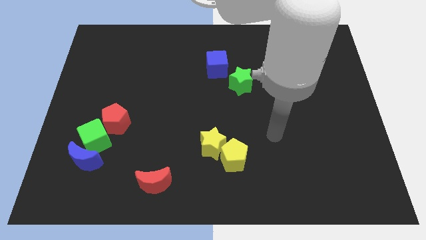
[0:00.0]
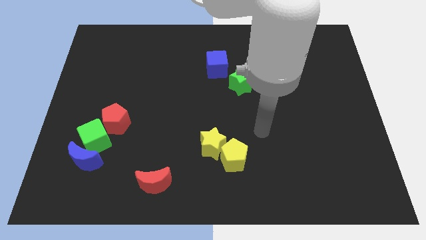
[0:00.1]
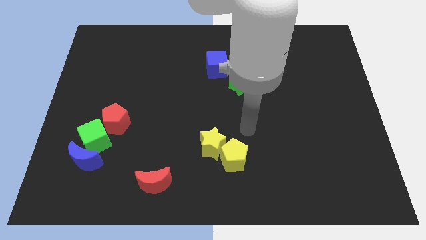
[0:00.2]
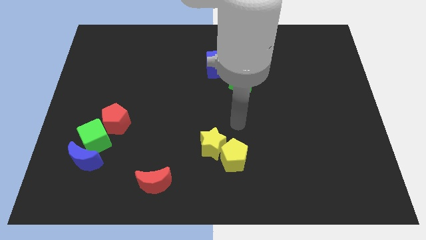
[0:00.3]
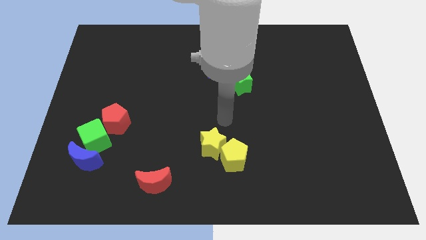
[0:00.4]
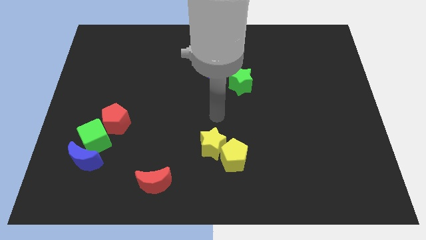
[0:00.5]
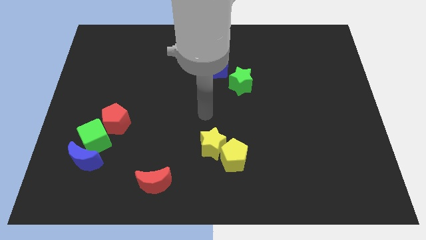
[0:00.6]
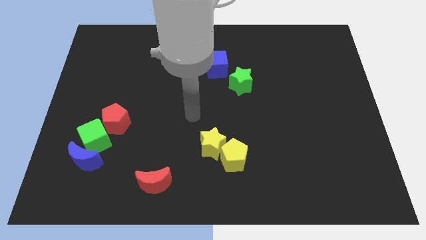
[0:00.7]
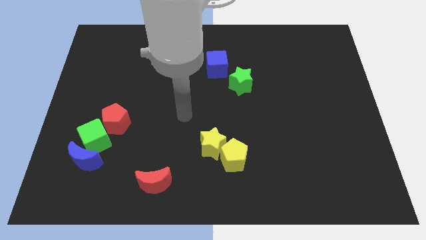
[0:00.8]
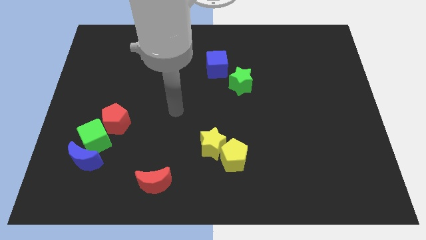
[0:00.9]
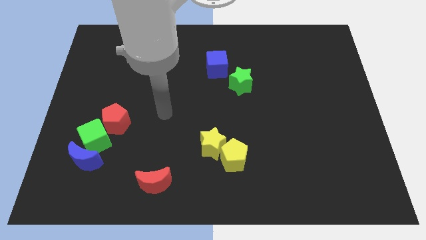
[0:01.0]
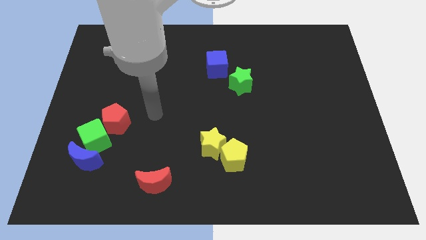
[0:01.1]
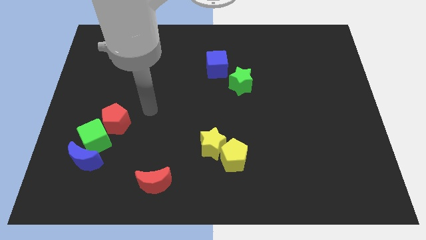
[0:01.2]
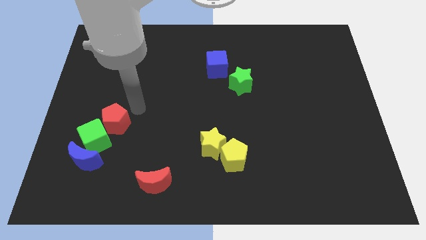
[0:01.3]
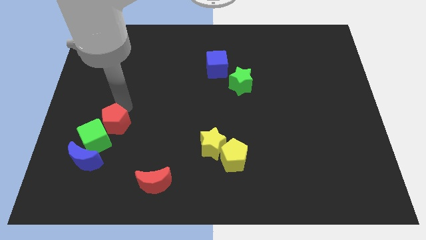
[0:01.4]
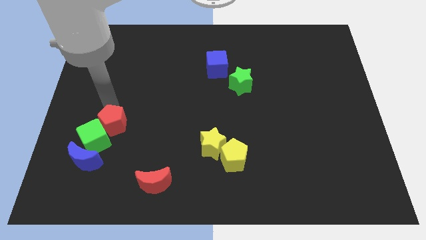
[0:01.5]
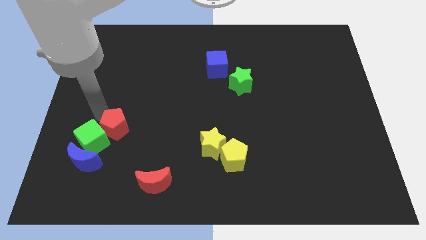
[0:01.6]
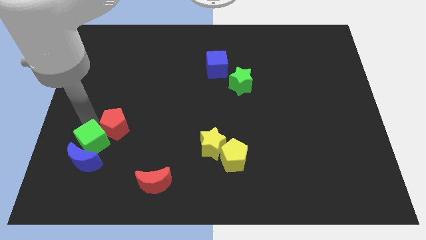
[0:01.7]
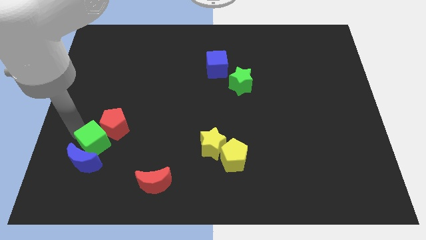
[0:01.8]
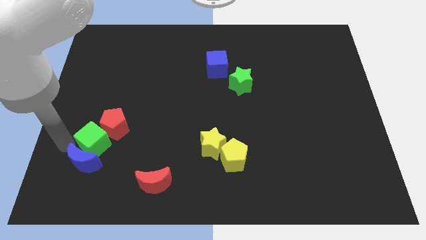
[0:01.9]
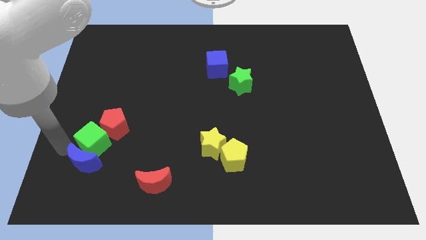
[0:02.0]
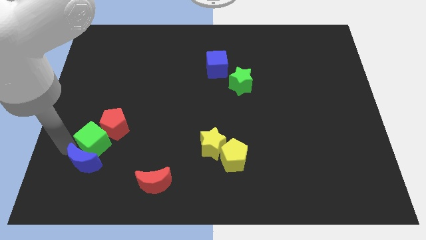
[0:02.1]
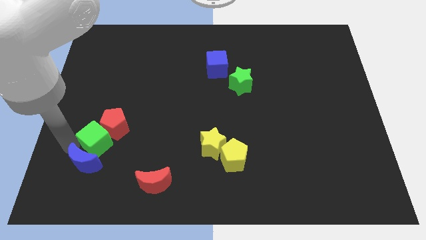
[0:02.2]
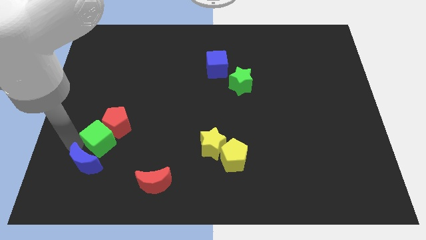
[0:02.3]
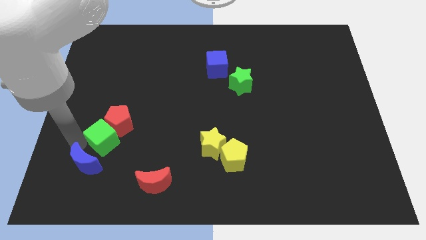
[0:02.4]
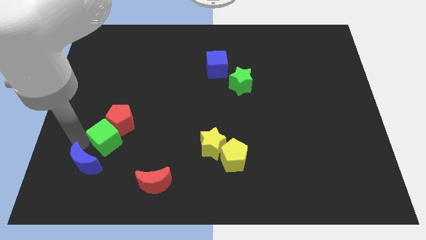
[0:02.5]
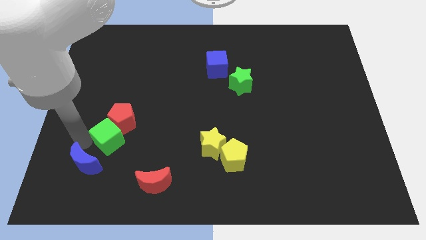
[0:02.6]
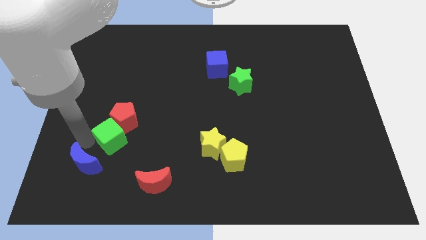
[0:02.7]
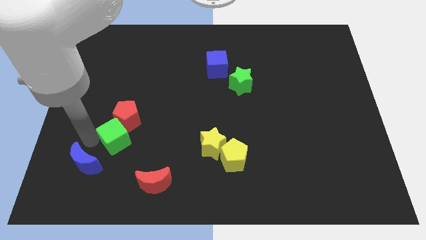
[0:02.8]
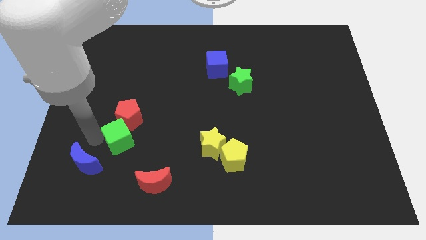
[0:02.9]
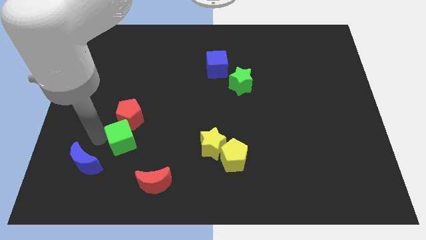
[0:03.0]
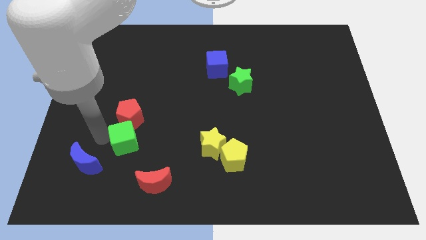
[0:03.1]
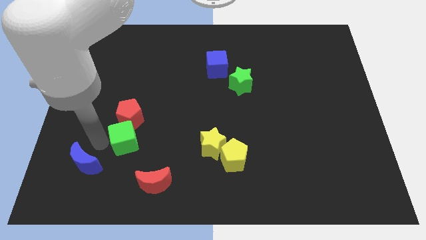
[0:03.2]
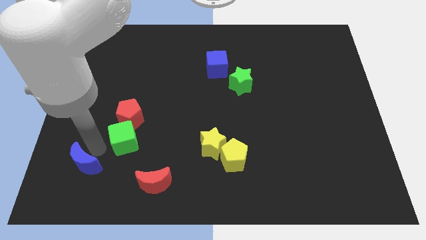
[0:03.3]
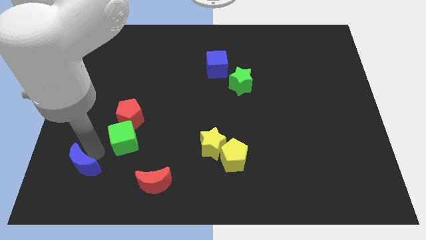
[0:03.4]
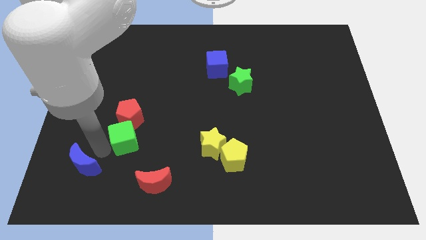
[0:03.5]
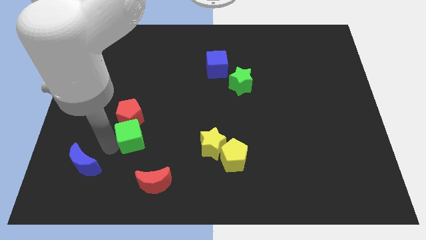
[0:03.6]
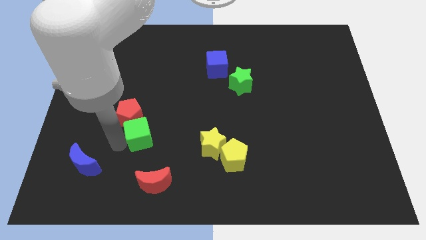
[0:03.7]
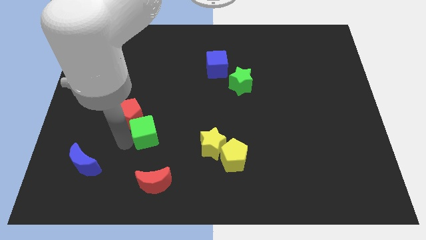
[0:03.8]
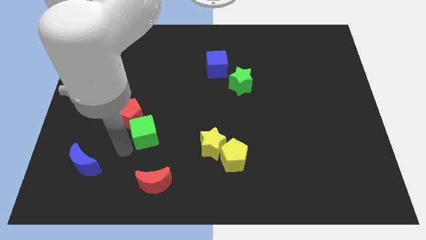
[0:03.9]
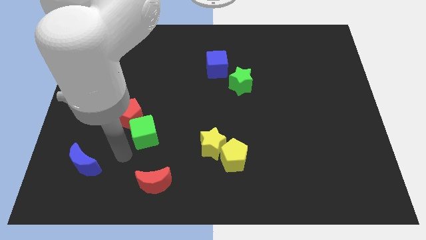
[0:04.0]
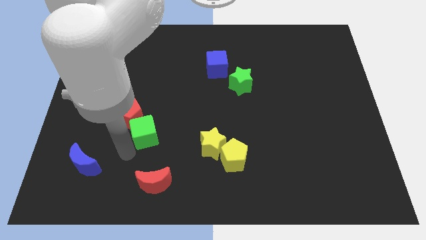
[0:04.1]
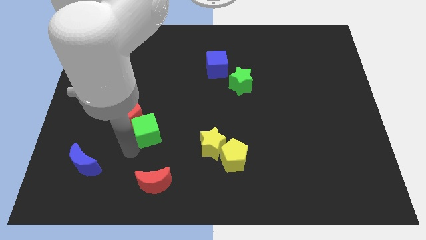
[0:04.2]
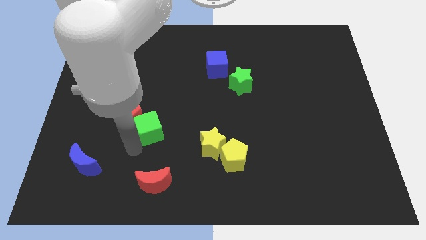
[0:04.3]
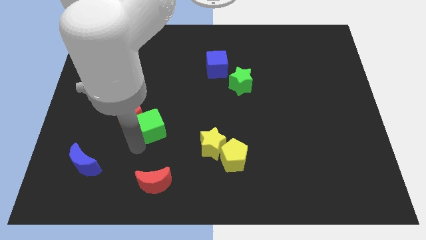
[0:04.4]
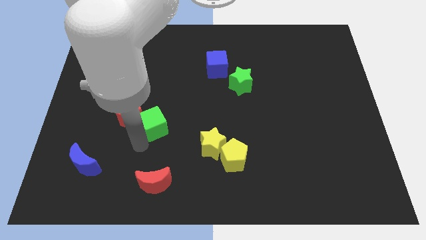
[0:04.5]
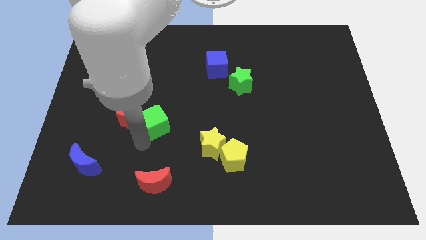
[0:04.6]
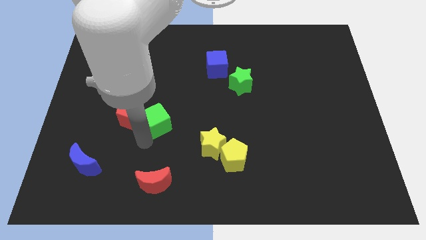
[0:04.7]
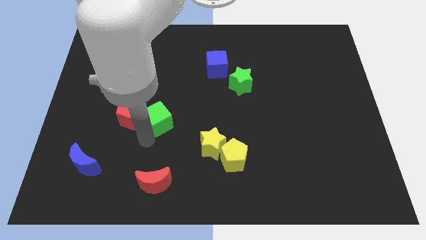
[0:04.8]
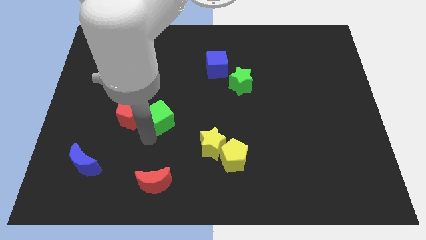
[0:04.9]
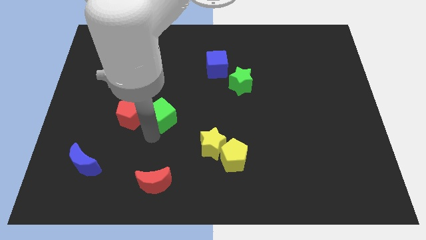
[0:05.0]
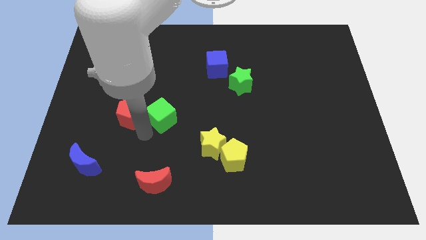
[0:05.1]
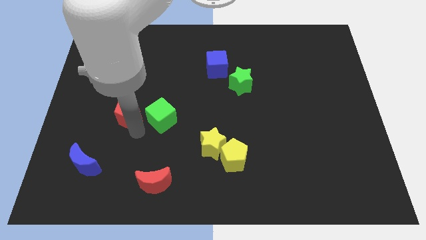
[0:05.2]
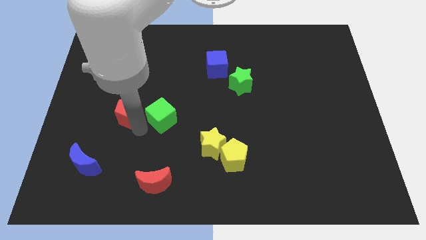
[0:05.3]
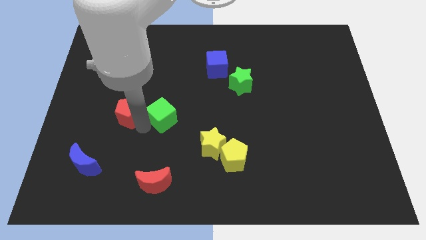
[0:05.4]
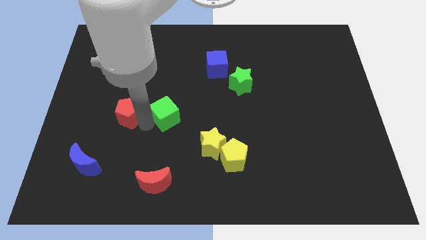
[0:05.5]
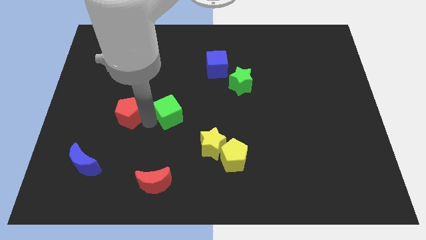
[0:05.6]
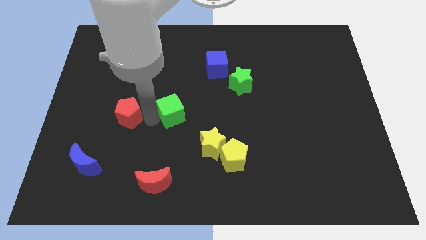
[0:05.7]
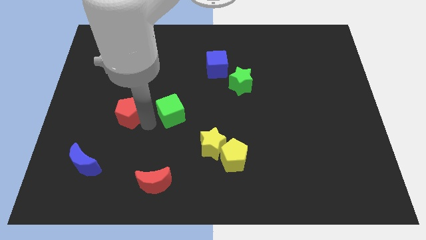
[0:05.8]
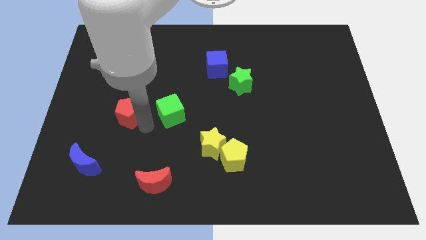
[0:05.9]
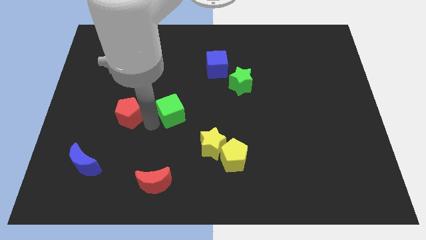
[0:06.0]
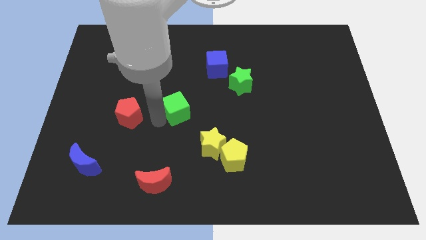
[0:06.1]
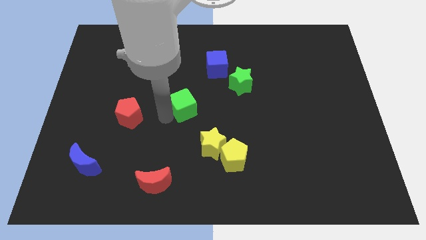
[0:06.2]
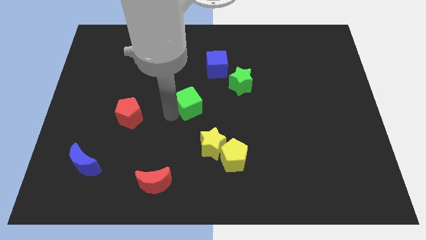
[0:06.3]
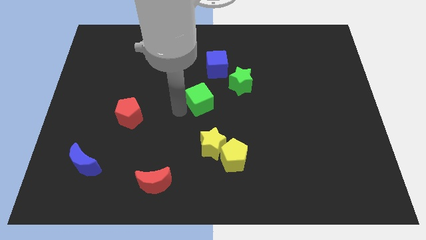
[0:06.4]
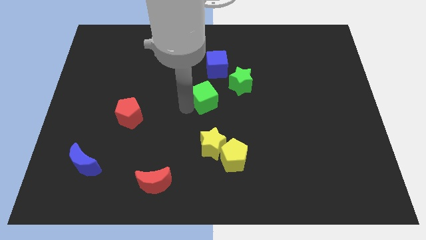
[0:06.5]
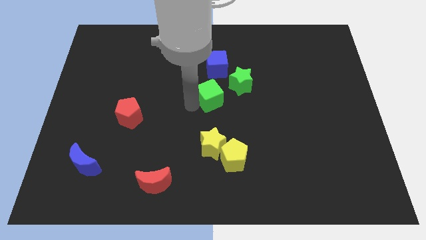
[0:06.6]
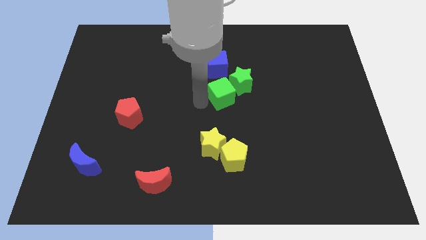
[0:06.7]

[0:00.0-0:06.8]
put the green cube next to the green star

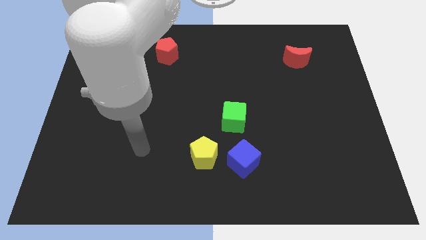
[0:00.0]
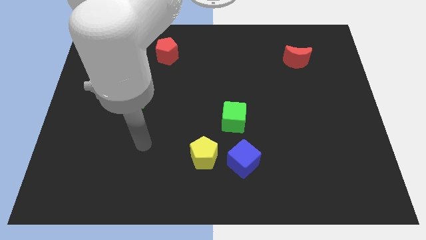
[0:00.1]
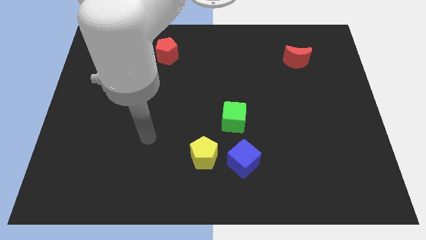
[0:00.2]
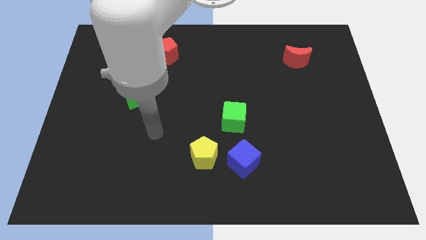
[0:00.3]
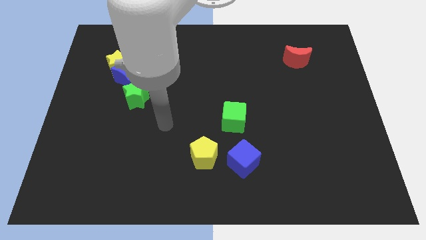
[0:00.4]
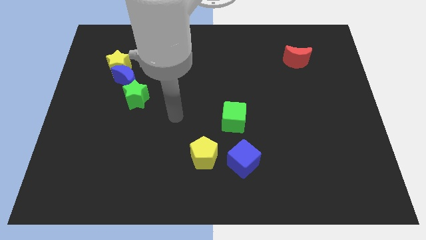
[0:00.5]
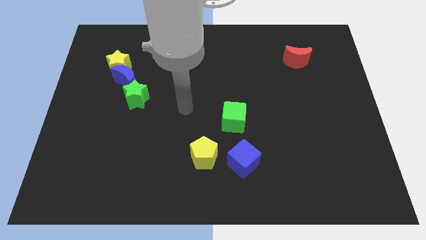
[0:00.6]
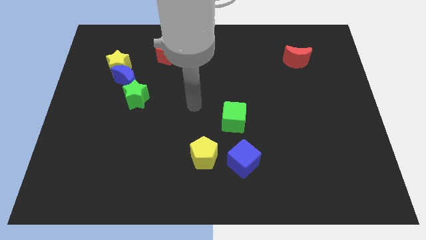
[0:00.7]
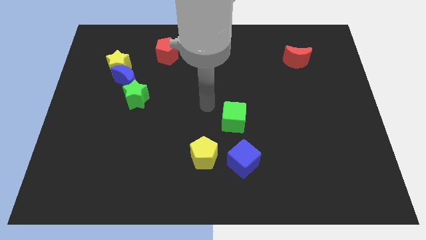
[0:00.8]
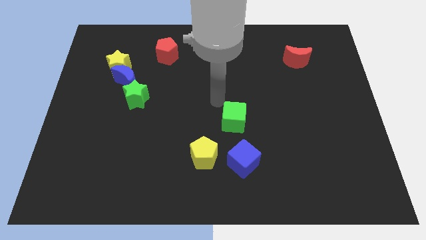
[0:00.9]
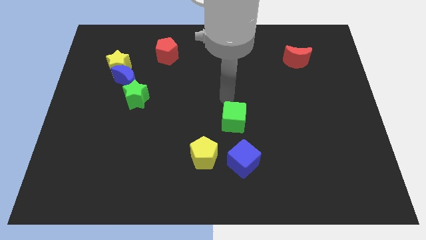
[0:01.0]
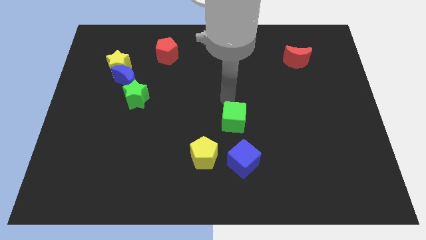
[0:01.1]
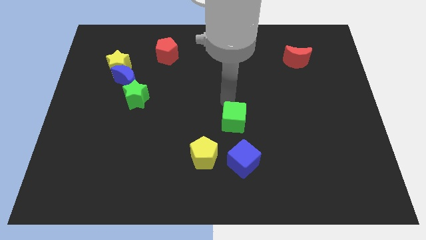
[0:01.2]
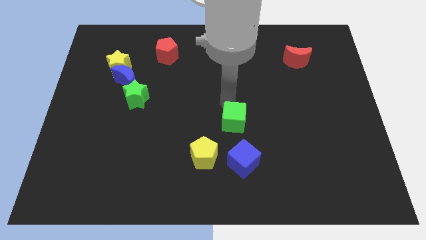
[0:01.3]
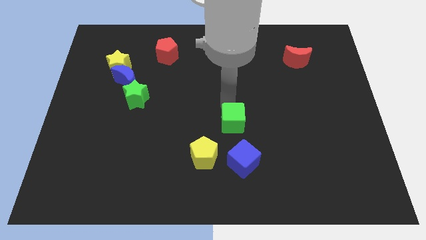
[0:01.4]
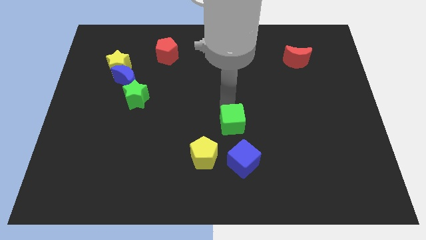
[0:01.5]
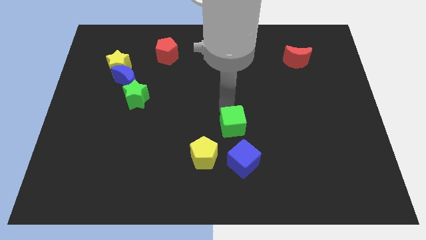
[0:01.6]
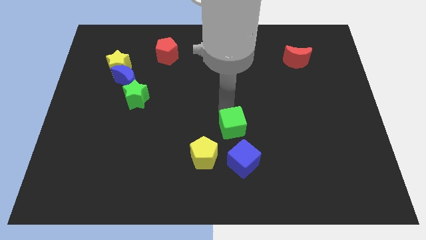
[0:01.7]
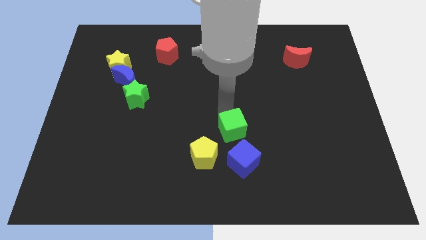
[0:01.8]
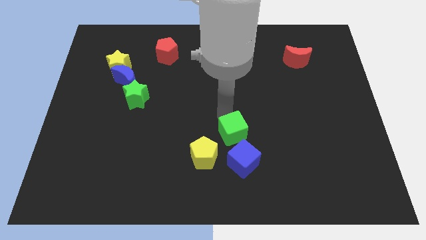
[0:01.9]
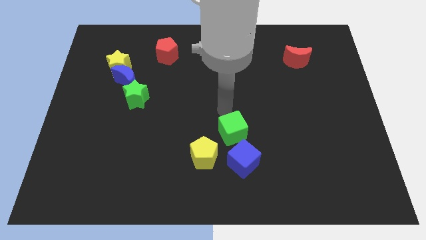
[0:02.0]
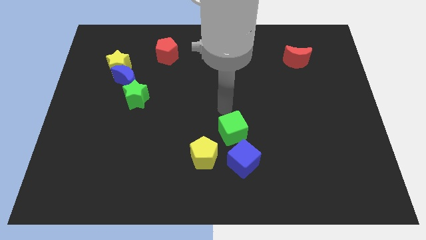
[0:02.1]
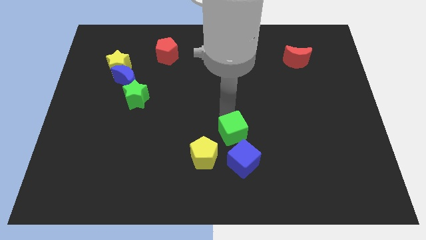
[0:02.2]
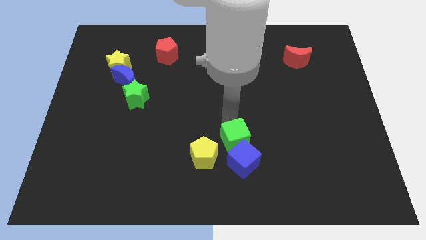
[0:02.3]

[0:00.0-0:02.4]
move the green cube next to the blue cube
